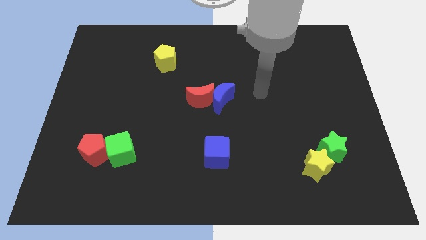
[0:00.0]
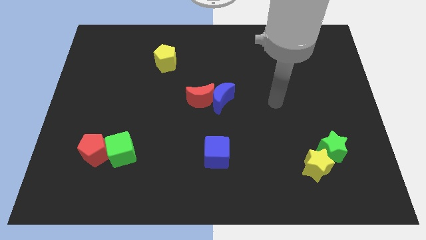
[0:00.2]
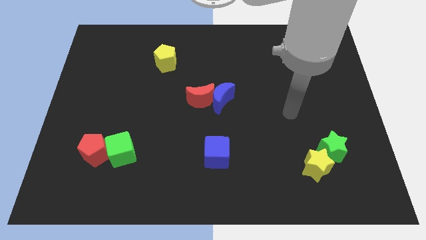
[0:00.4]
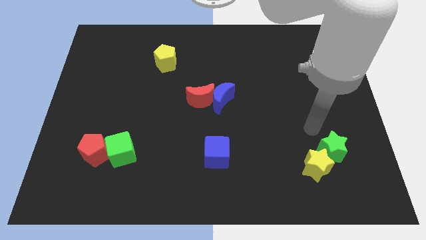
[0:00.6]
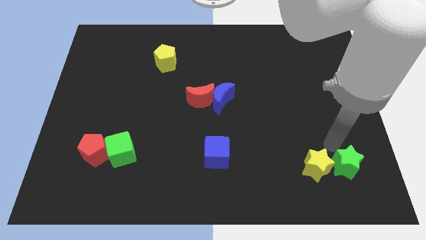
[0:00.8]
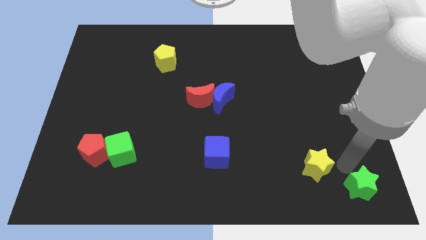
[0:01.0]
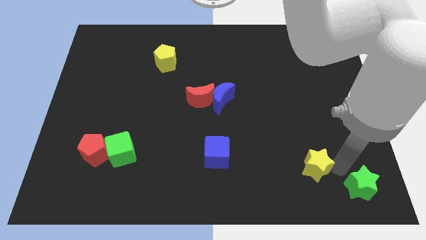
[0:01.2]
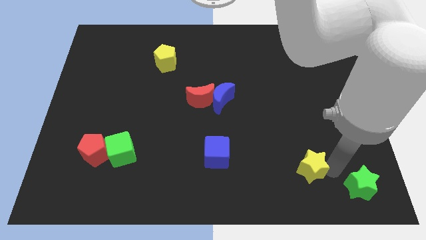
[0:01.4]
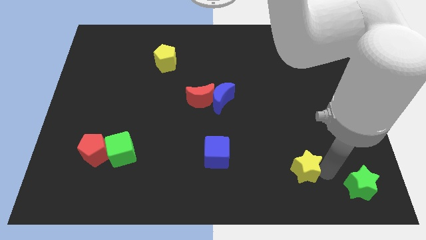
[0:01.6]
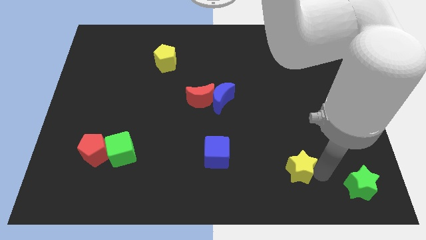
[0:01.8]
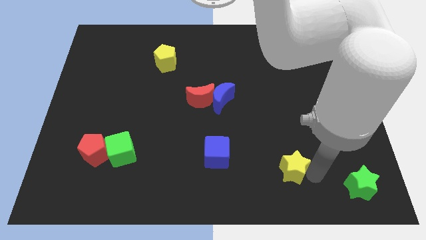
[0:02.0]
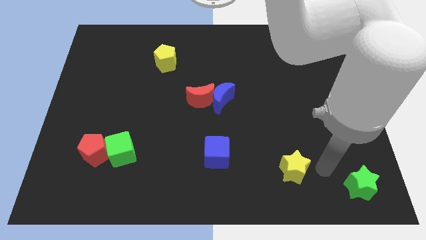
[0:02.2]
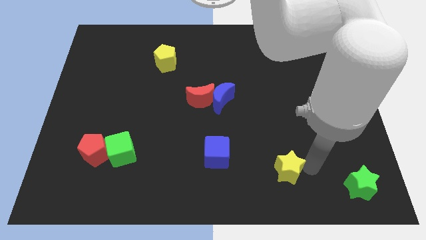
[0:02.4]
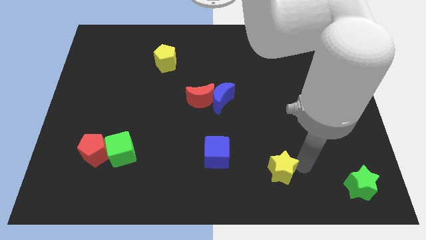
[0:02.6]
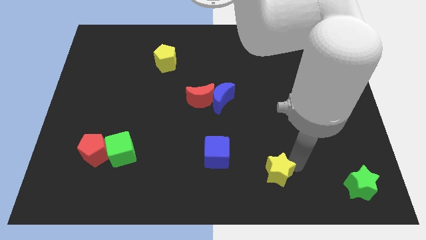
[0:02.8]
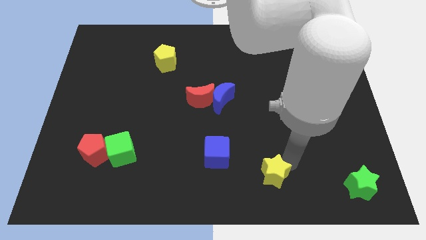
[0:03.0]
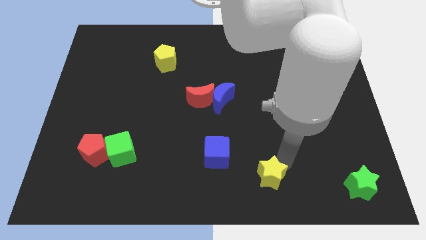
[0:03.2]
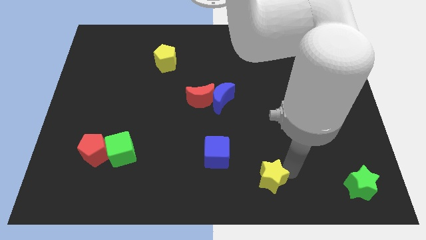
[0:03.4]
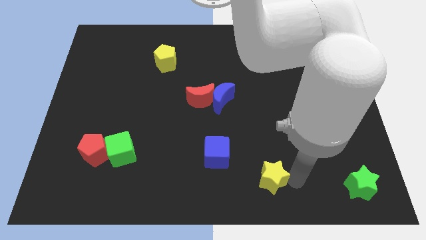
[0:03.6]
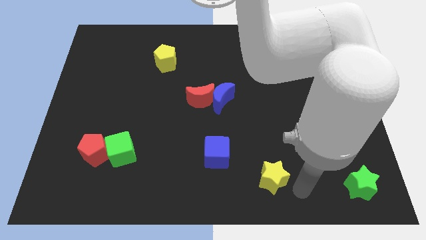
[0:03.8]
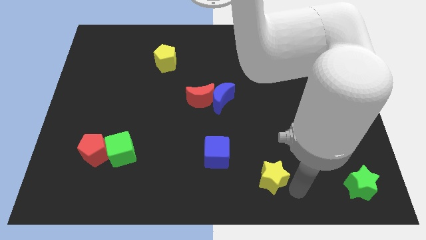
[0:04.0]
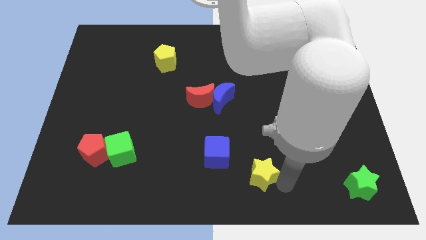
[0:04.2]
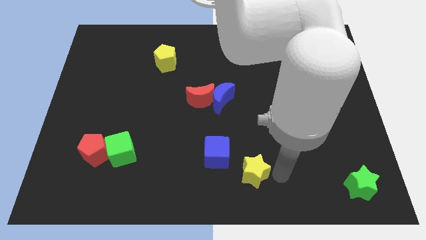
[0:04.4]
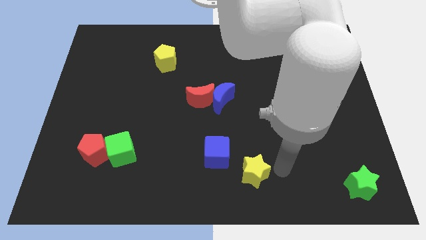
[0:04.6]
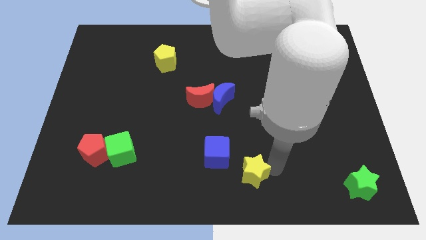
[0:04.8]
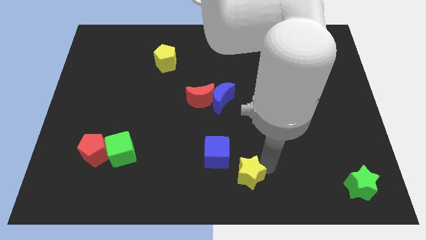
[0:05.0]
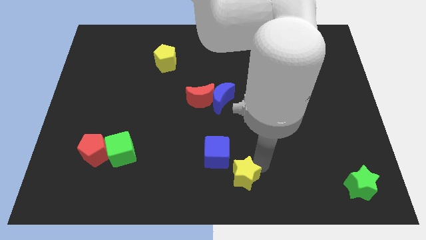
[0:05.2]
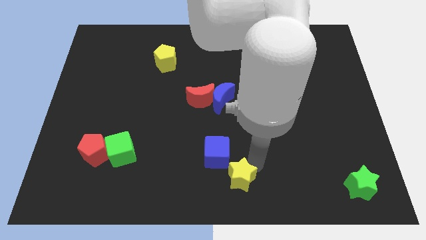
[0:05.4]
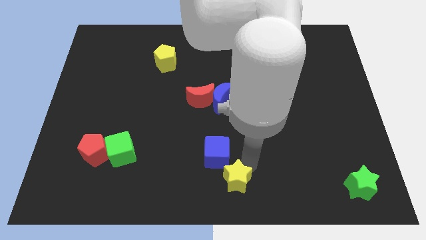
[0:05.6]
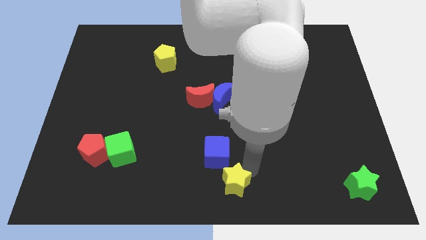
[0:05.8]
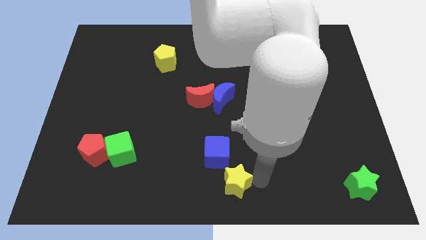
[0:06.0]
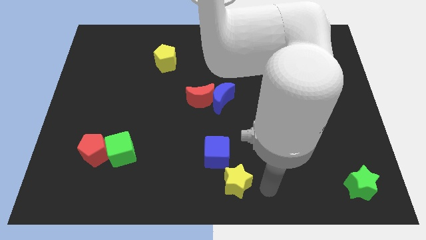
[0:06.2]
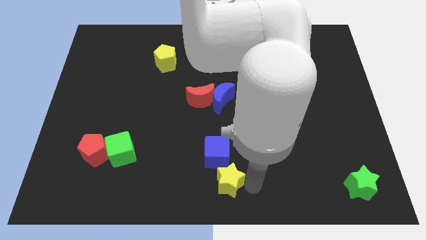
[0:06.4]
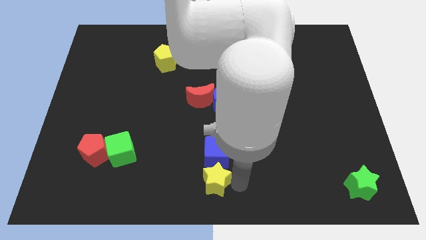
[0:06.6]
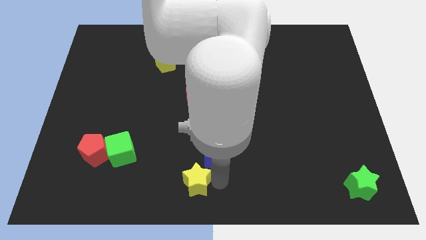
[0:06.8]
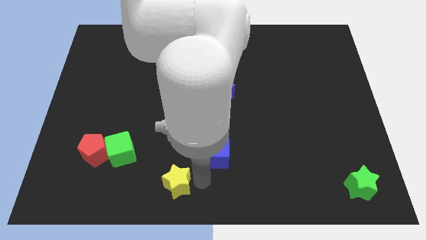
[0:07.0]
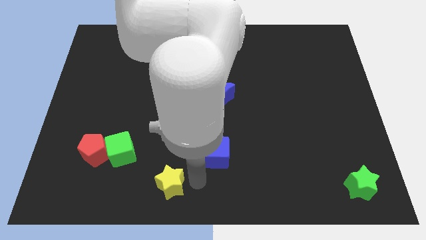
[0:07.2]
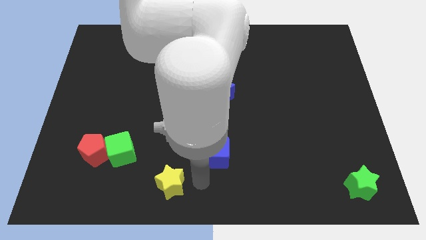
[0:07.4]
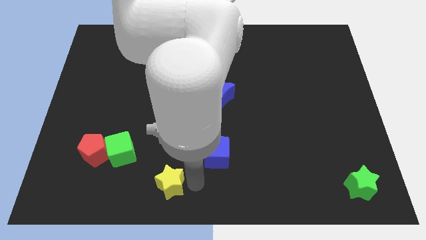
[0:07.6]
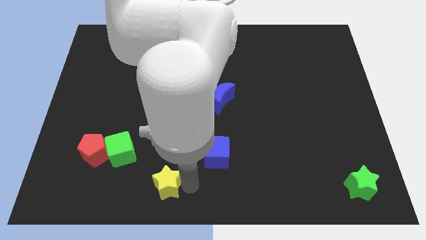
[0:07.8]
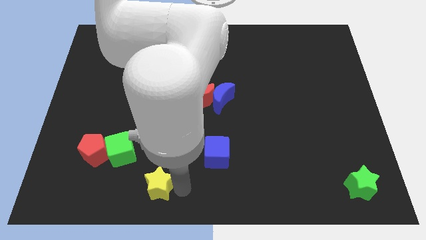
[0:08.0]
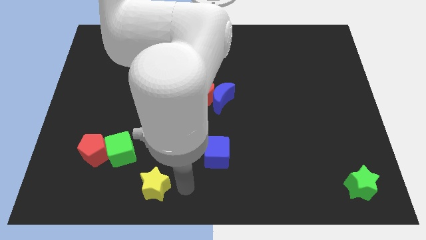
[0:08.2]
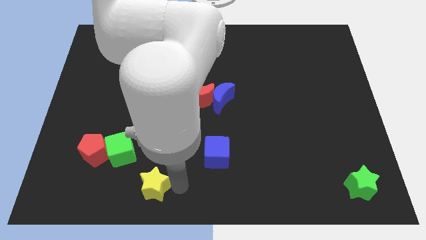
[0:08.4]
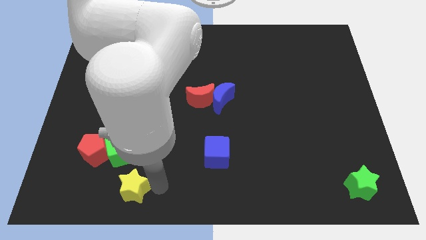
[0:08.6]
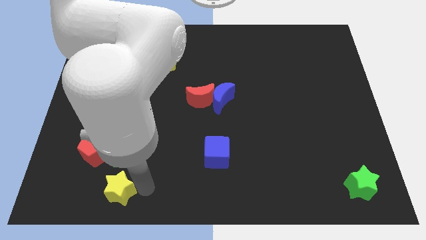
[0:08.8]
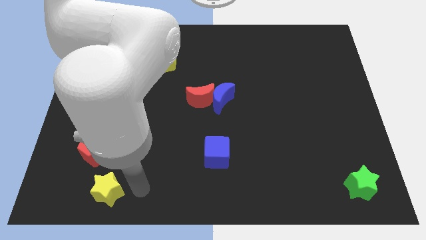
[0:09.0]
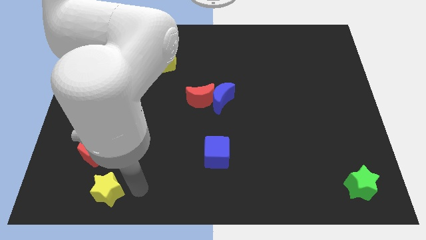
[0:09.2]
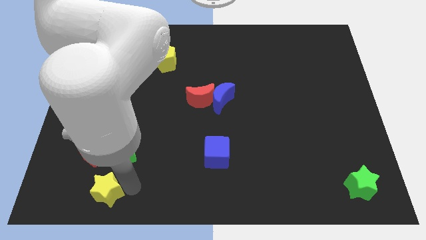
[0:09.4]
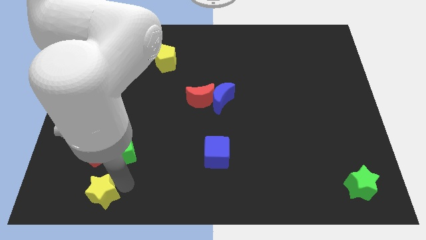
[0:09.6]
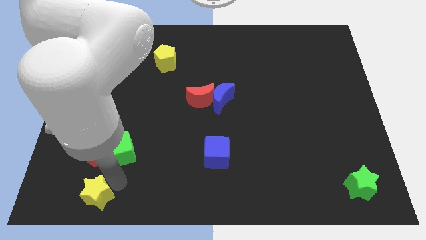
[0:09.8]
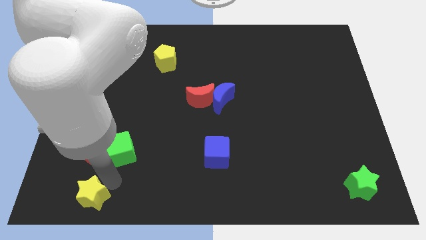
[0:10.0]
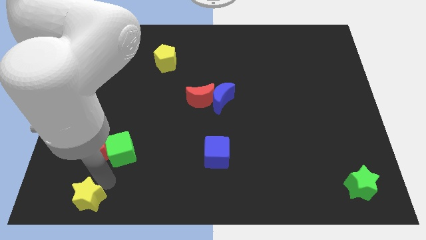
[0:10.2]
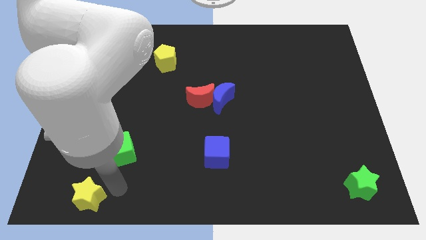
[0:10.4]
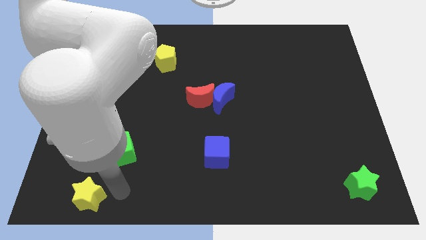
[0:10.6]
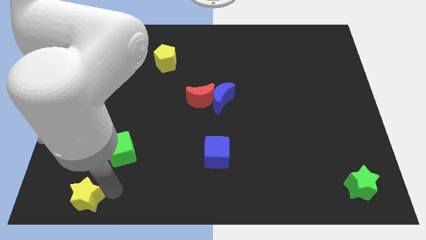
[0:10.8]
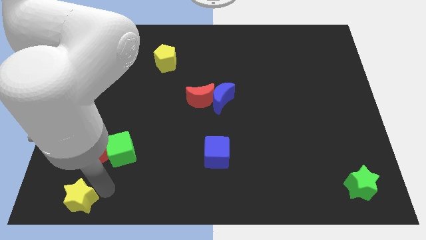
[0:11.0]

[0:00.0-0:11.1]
push the yellow star to the bottom left corner
